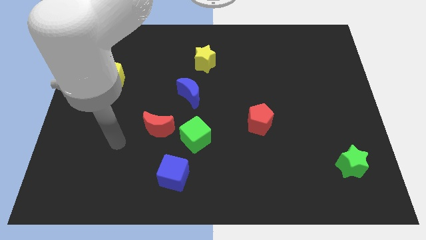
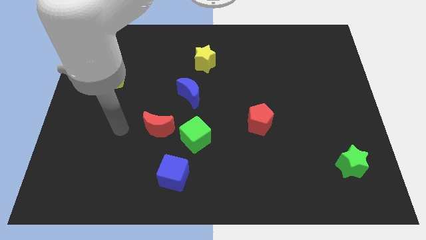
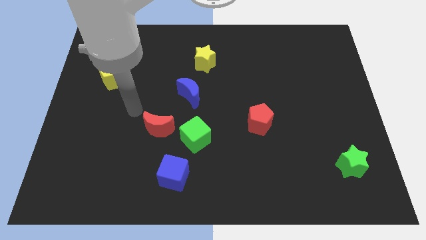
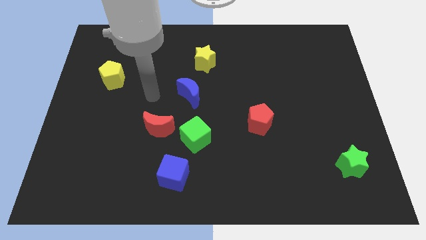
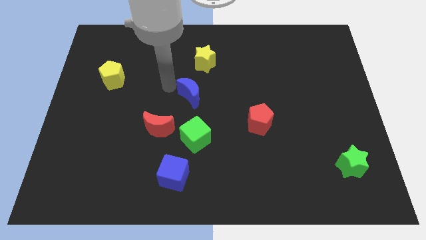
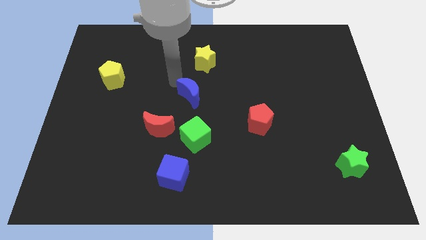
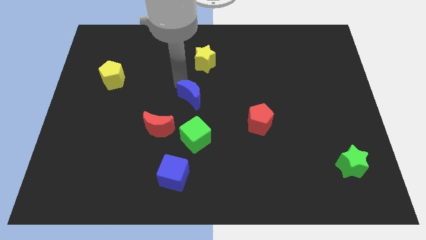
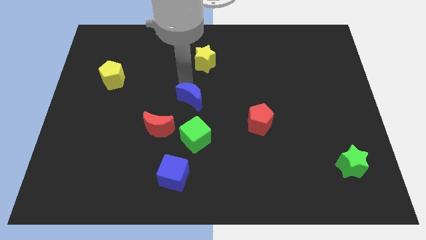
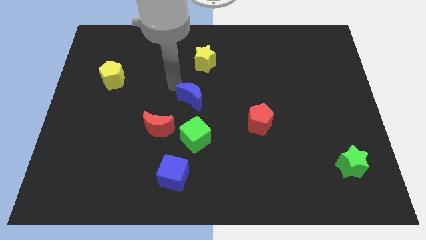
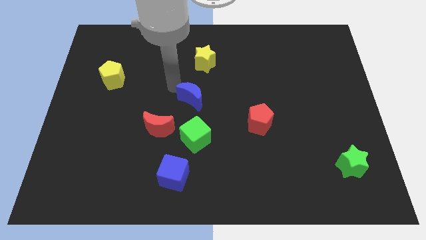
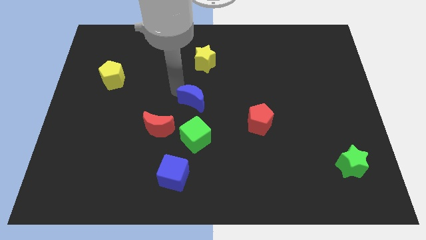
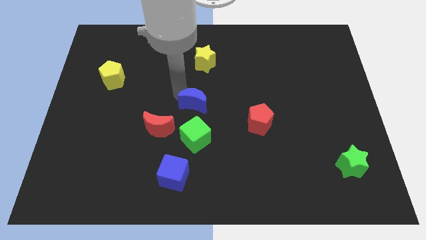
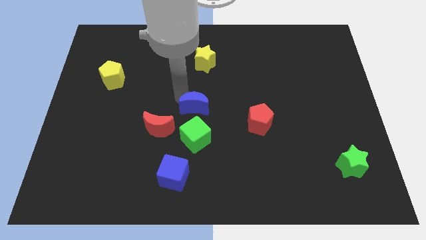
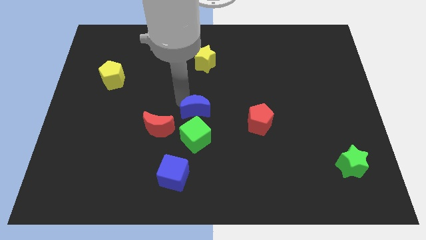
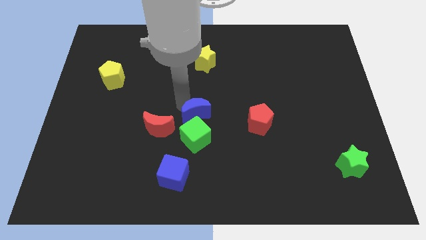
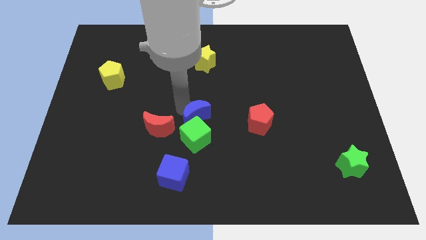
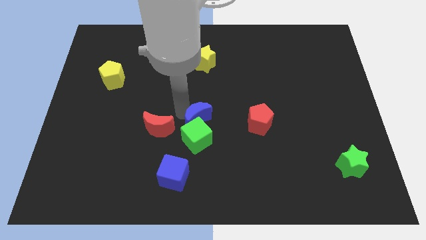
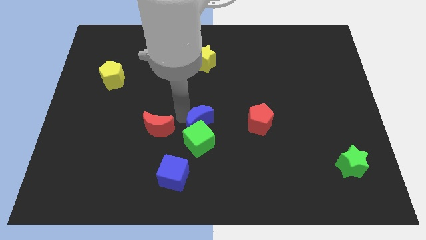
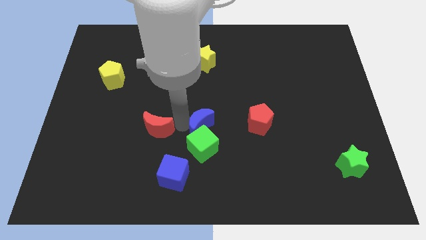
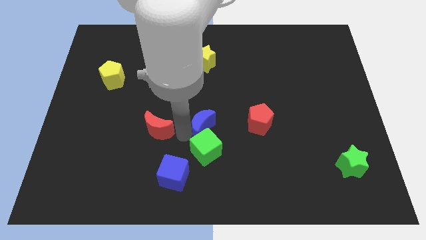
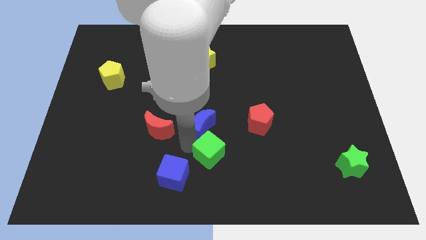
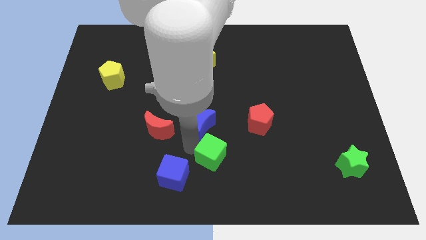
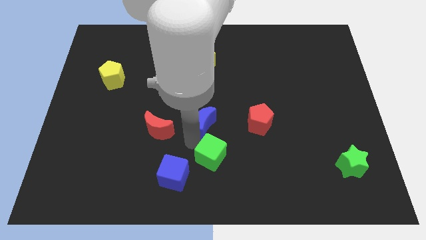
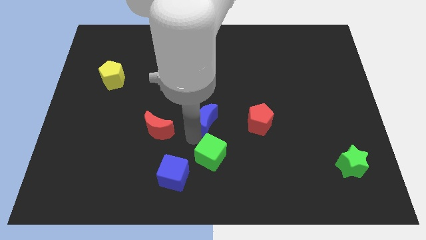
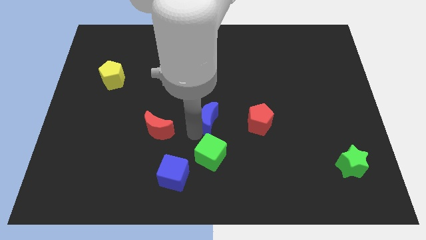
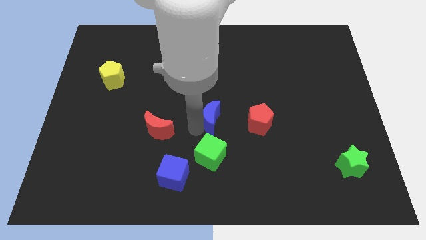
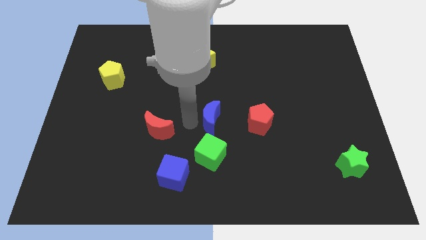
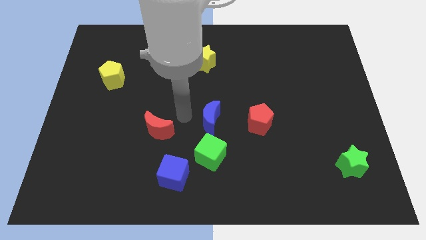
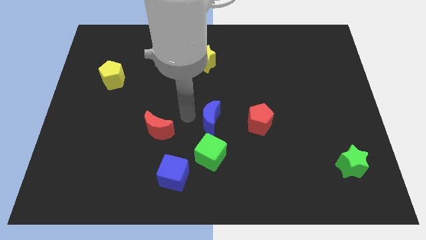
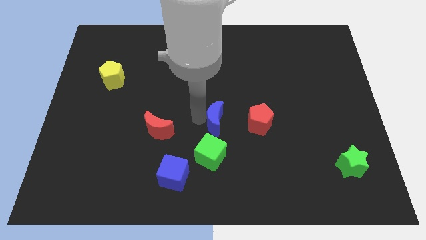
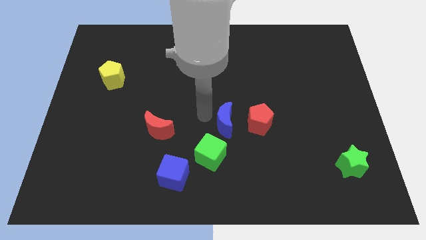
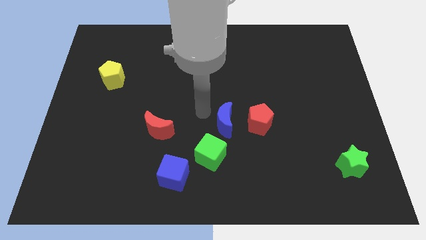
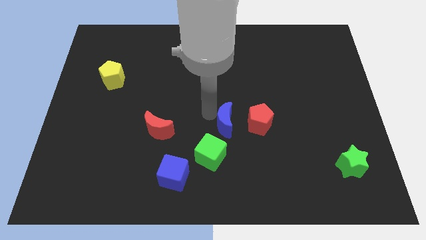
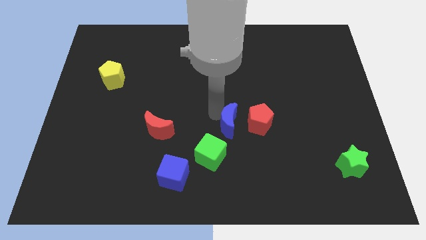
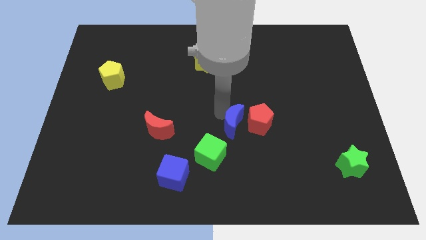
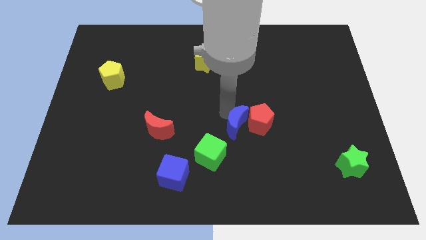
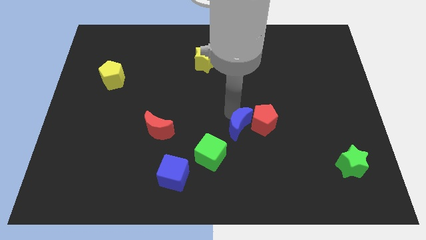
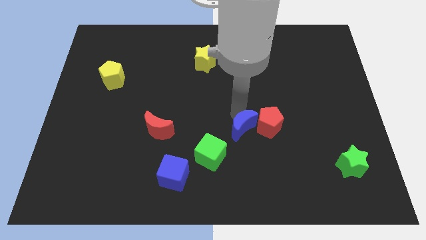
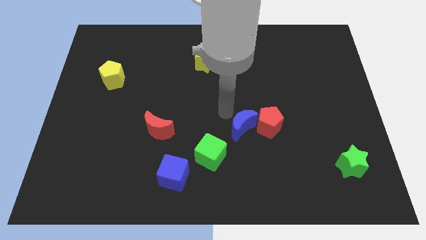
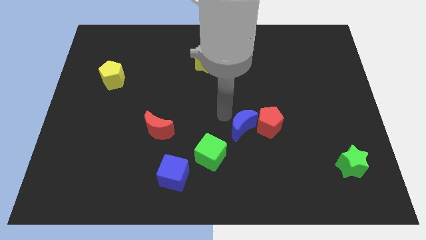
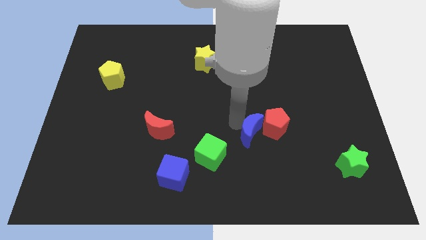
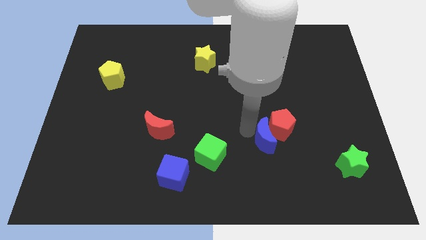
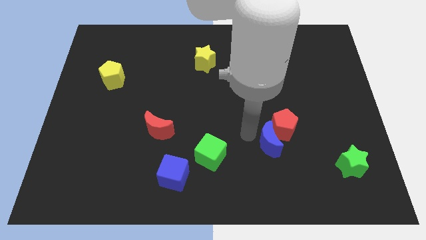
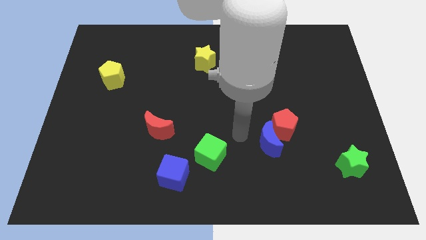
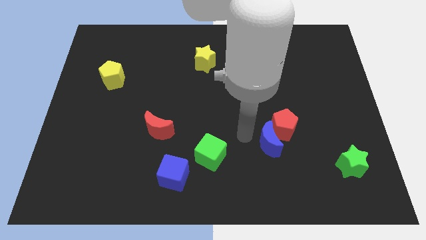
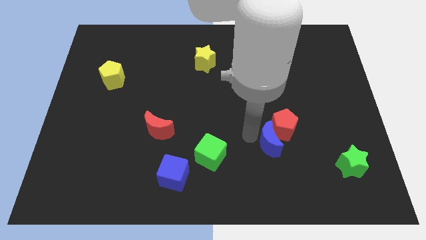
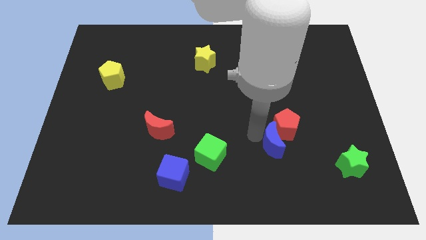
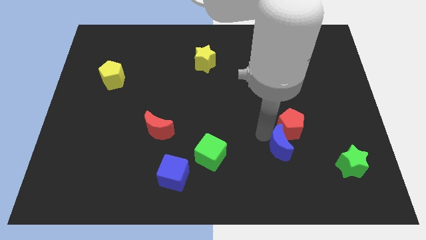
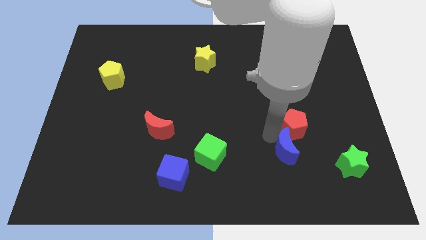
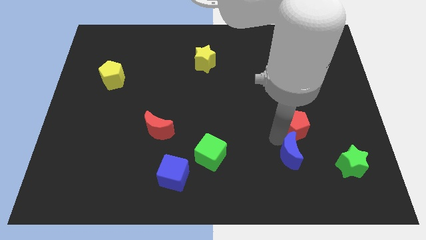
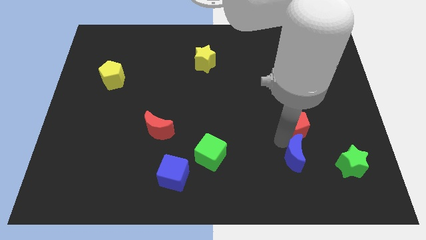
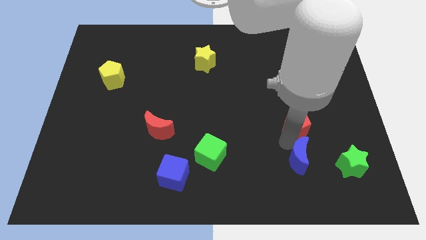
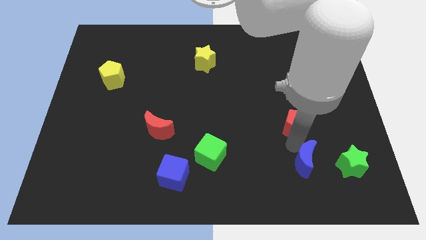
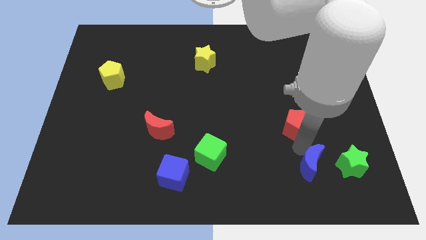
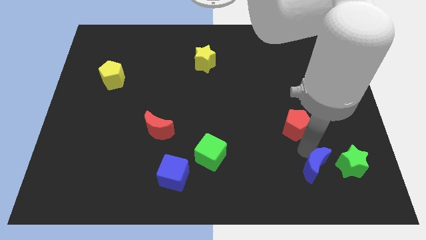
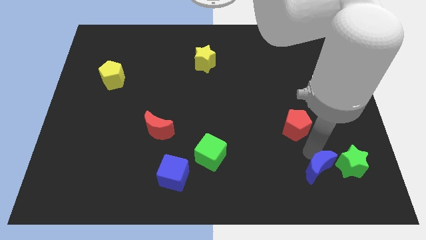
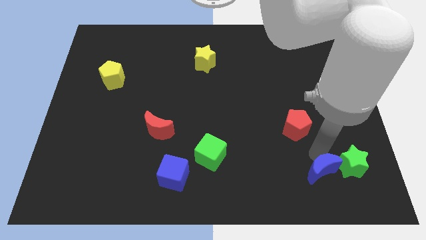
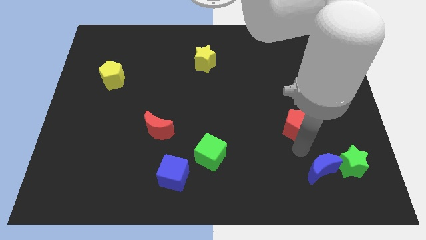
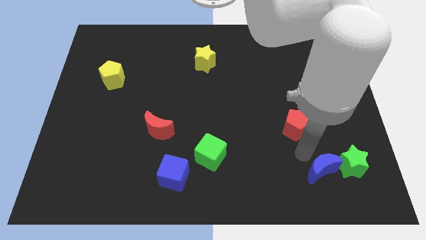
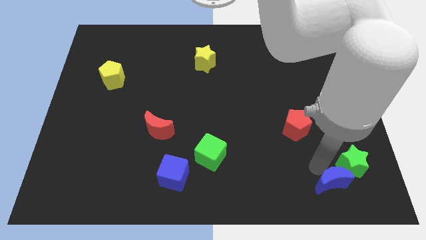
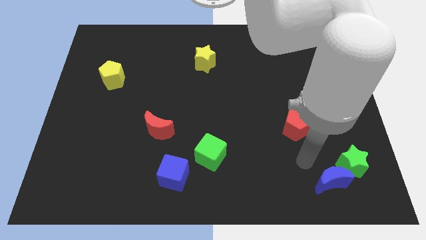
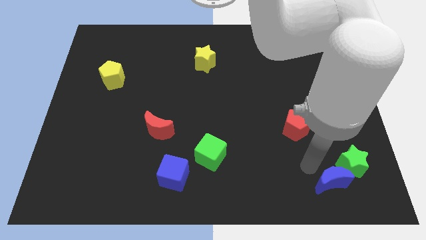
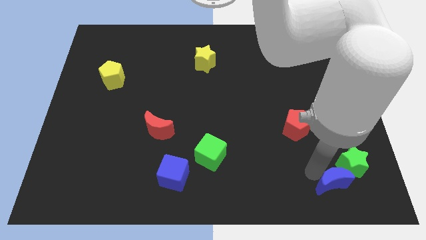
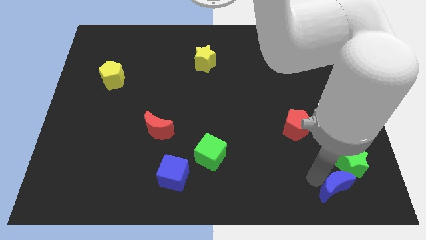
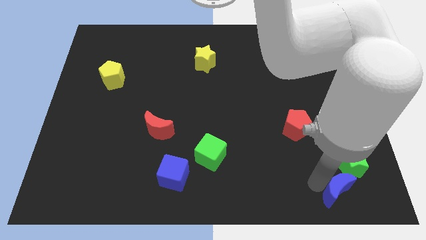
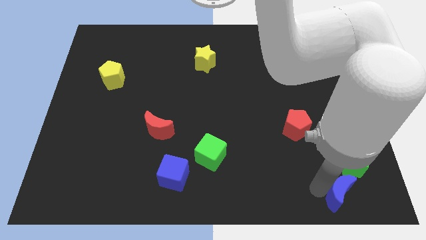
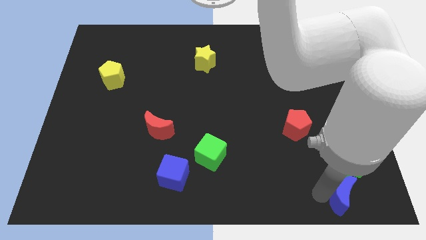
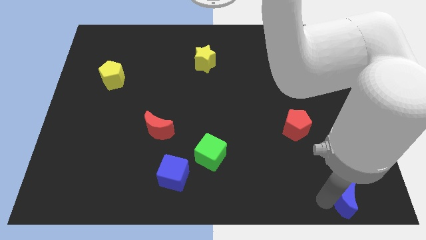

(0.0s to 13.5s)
move the blue moon to the bottom right
